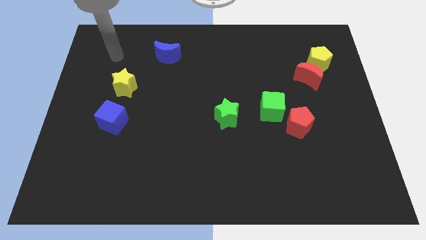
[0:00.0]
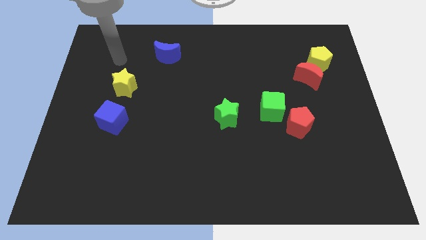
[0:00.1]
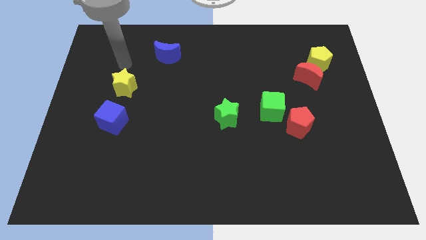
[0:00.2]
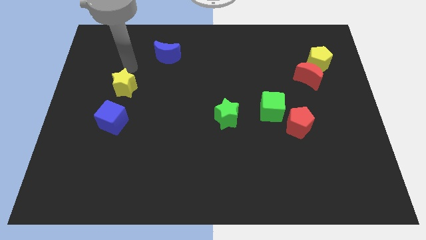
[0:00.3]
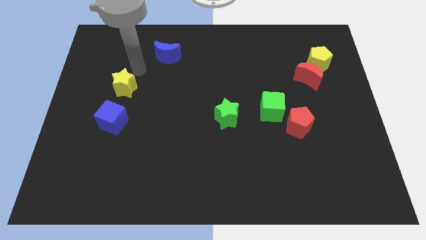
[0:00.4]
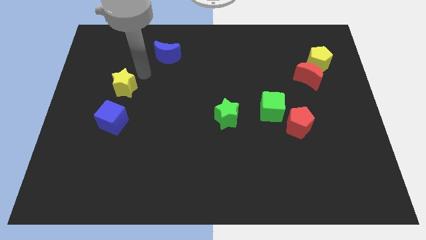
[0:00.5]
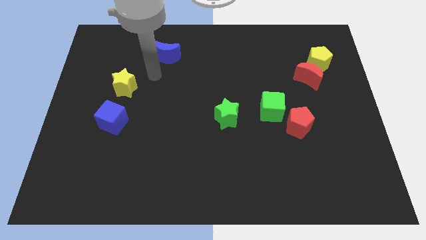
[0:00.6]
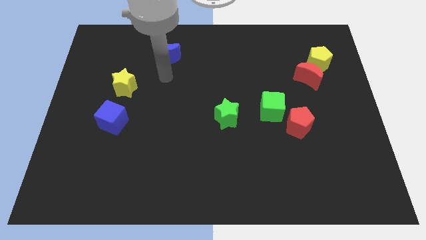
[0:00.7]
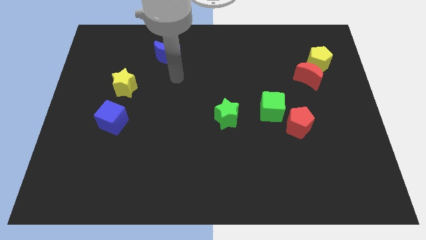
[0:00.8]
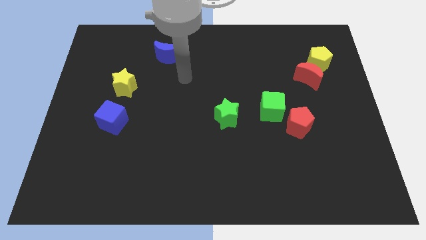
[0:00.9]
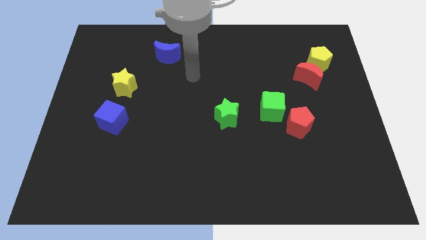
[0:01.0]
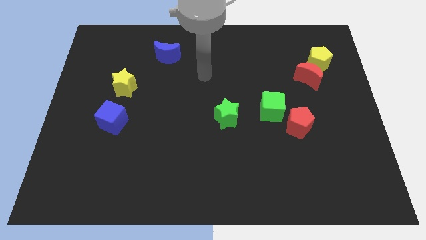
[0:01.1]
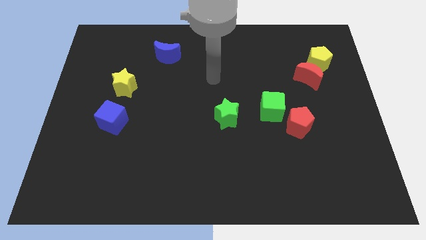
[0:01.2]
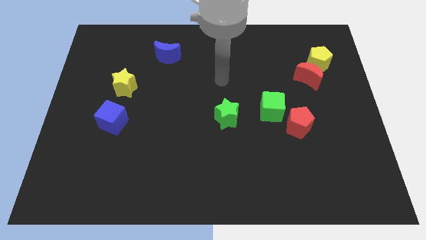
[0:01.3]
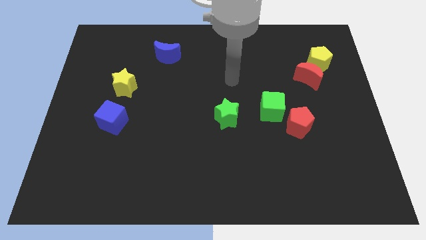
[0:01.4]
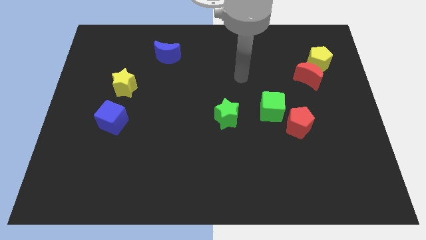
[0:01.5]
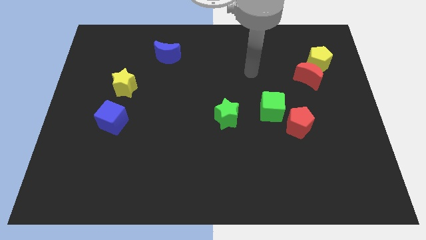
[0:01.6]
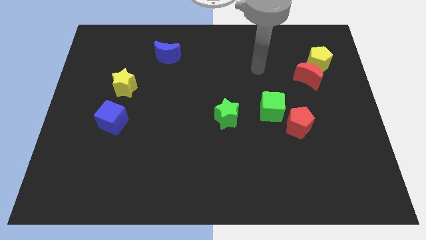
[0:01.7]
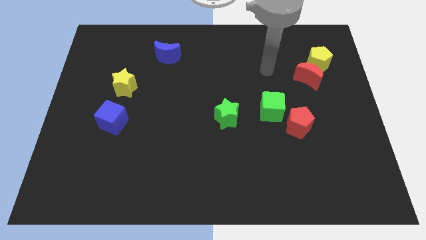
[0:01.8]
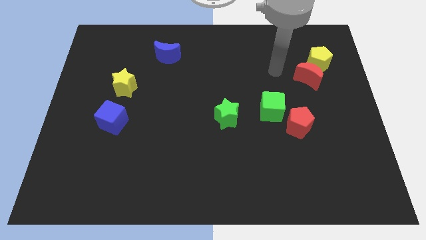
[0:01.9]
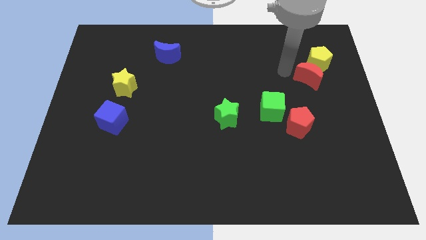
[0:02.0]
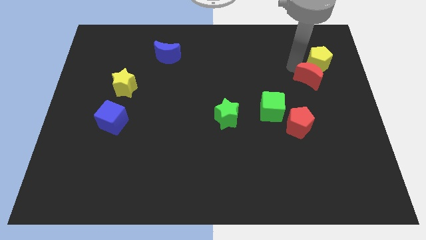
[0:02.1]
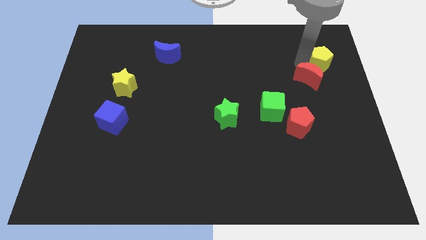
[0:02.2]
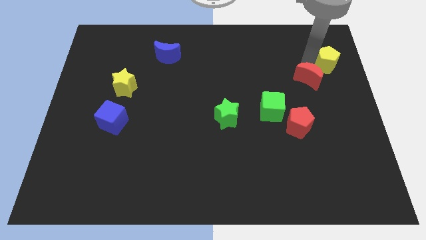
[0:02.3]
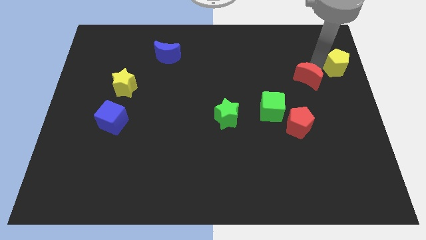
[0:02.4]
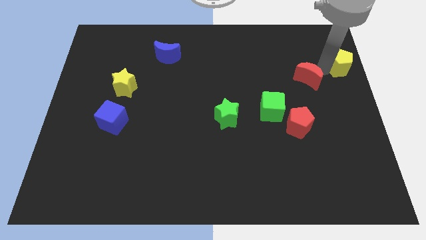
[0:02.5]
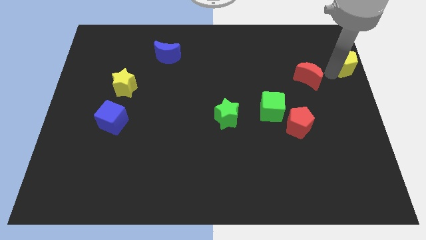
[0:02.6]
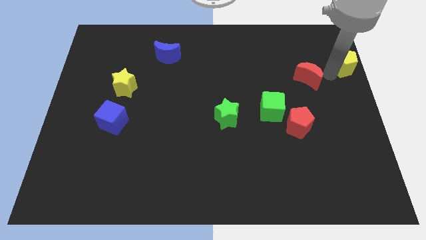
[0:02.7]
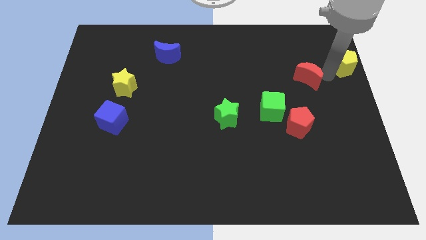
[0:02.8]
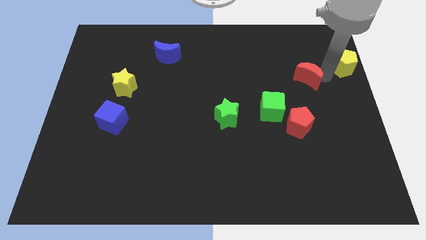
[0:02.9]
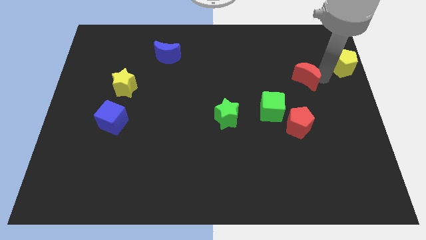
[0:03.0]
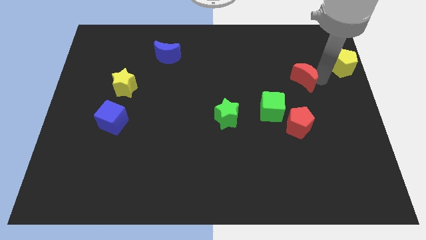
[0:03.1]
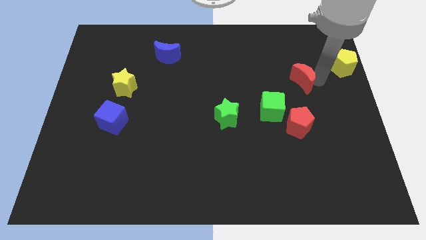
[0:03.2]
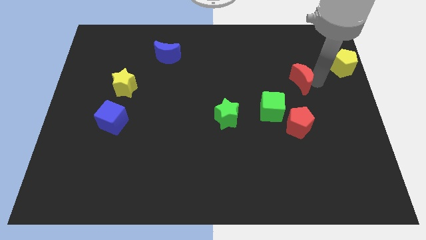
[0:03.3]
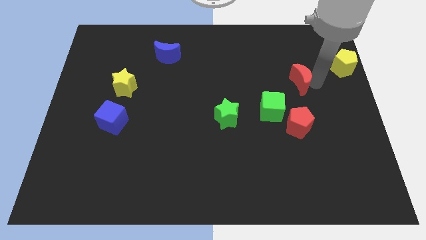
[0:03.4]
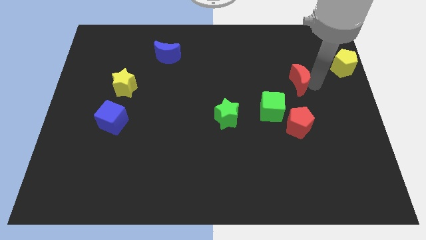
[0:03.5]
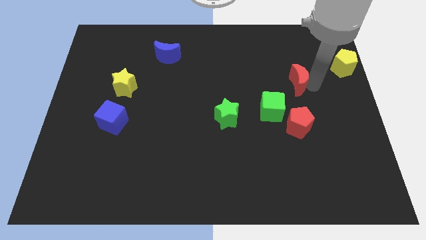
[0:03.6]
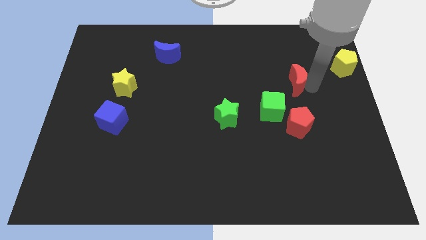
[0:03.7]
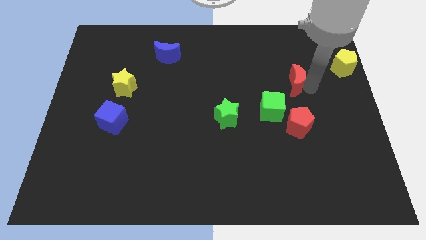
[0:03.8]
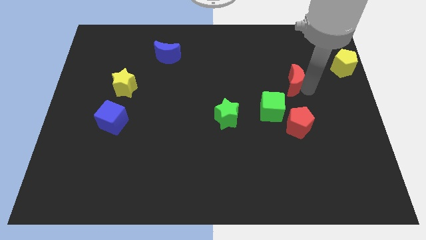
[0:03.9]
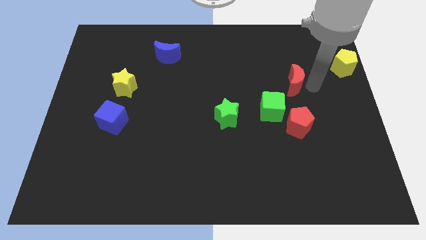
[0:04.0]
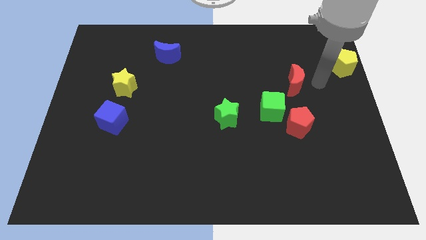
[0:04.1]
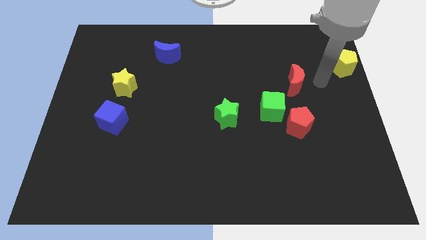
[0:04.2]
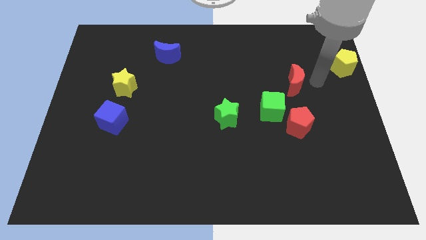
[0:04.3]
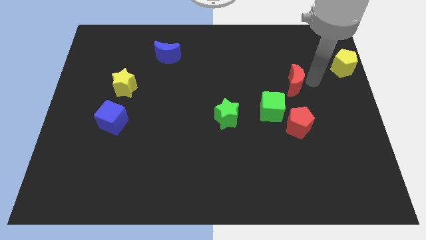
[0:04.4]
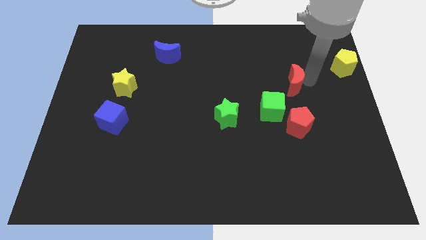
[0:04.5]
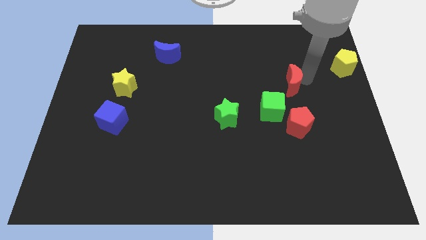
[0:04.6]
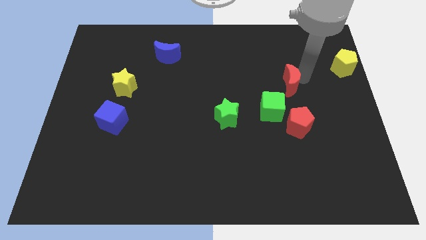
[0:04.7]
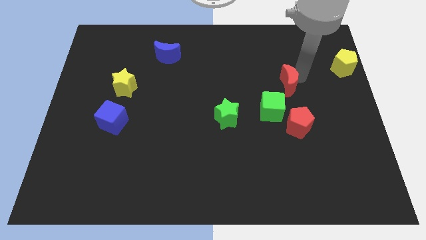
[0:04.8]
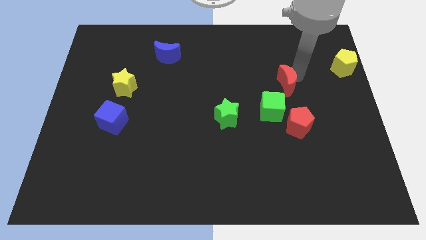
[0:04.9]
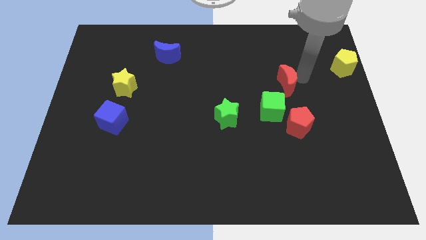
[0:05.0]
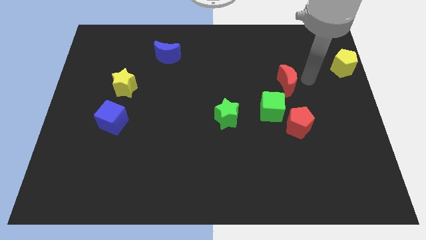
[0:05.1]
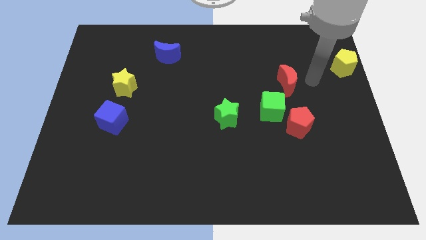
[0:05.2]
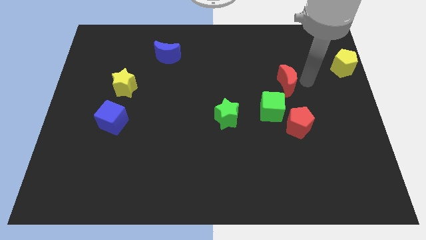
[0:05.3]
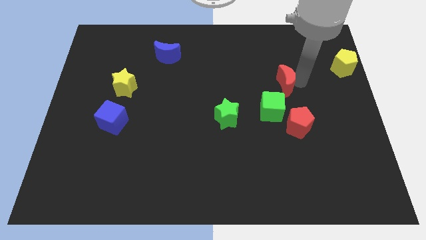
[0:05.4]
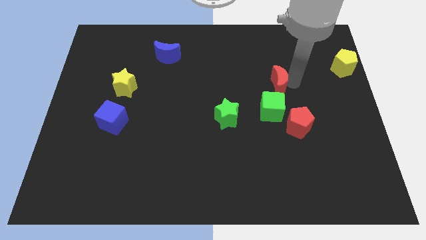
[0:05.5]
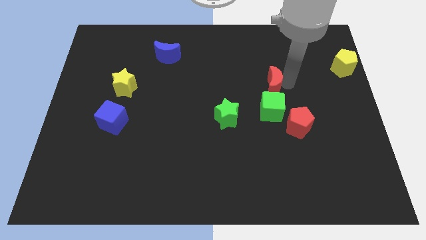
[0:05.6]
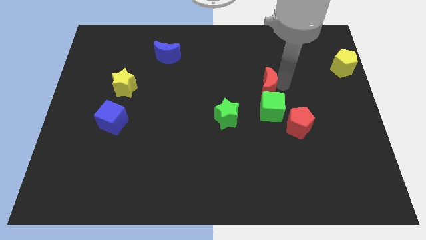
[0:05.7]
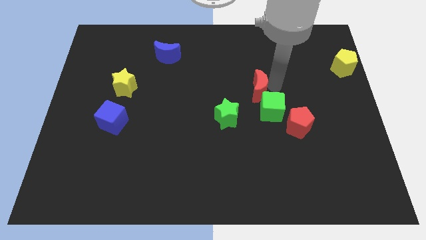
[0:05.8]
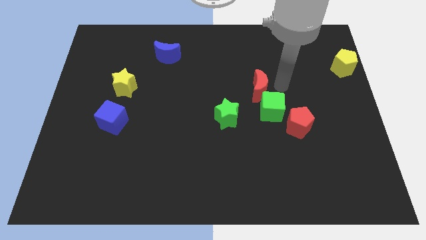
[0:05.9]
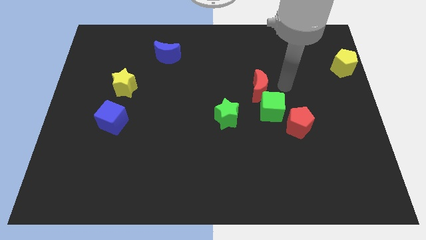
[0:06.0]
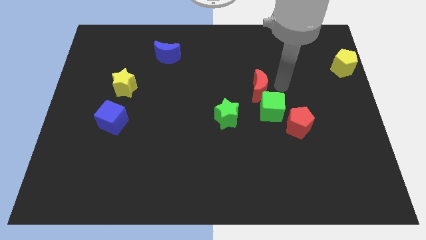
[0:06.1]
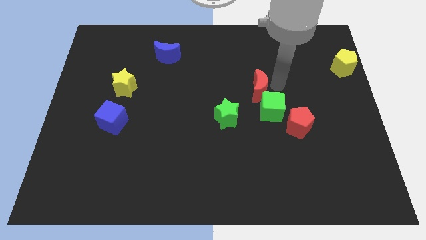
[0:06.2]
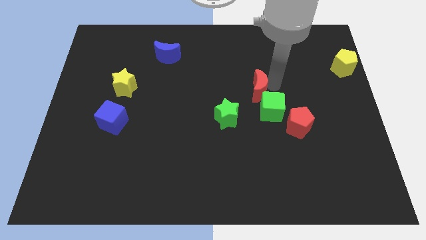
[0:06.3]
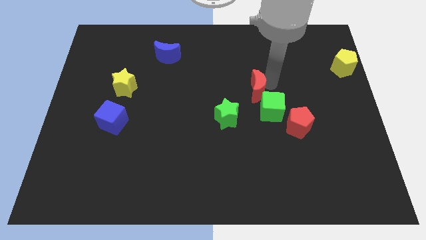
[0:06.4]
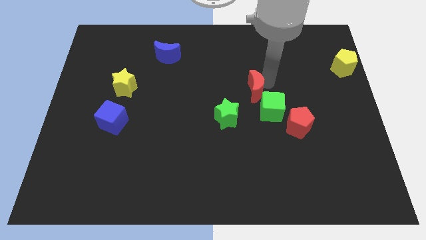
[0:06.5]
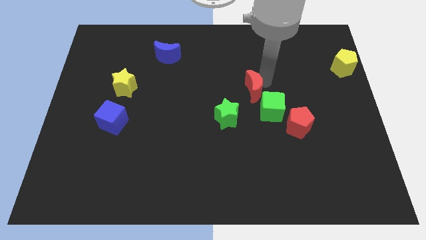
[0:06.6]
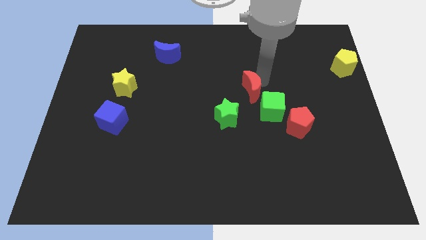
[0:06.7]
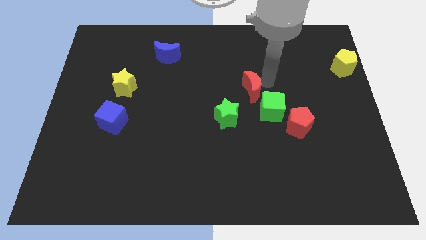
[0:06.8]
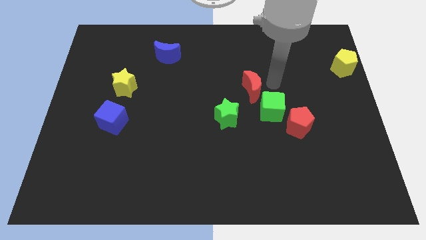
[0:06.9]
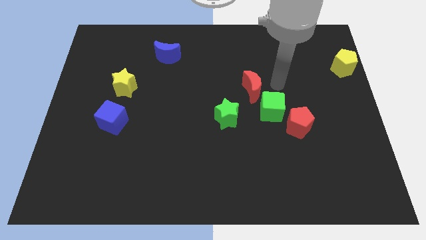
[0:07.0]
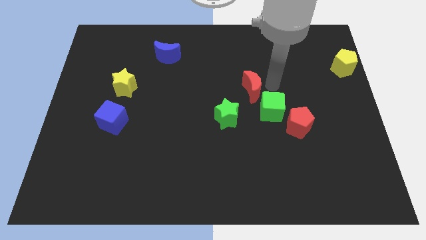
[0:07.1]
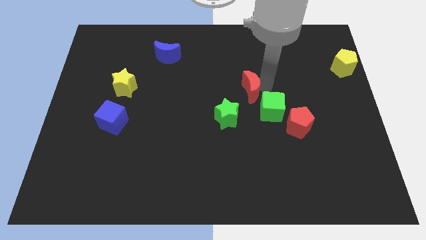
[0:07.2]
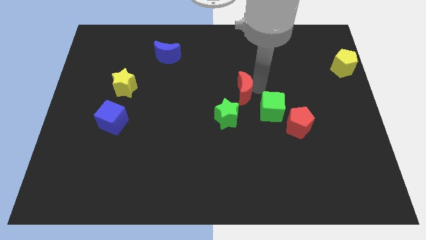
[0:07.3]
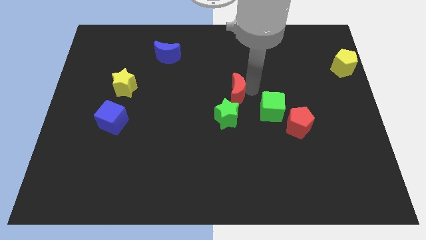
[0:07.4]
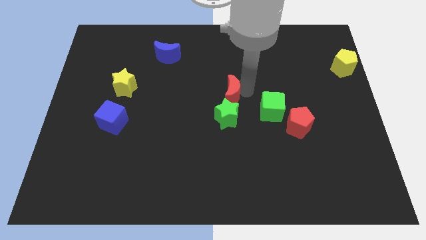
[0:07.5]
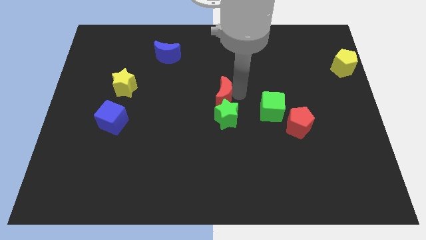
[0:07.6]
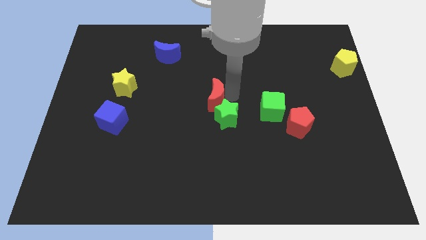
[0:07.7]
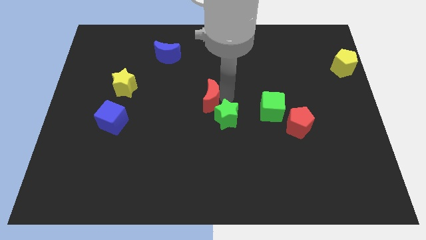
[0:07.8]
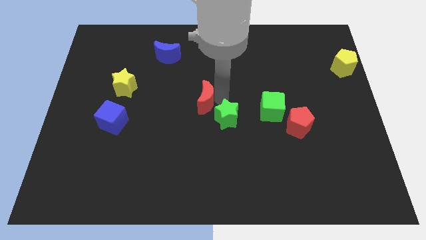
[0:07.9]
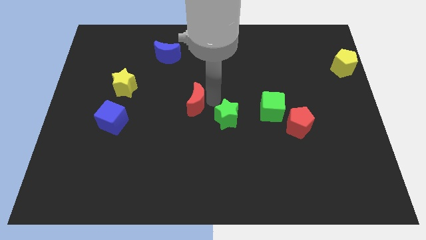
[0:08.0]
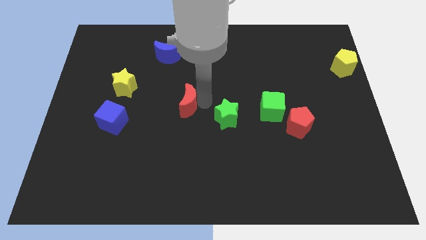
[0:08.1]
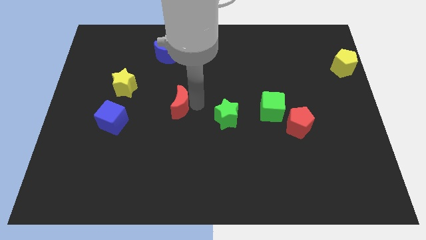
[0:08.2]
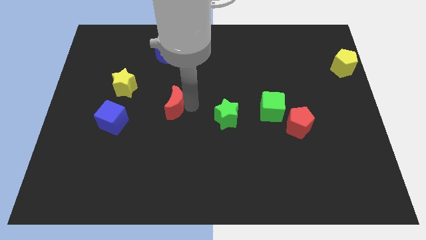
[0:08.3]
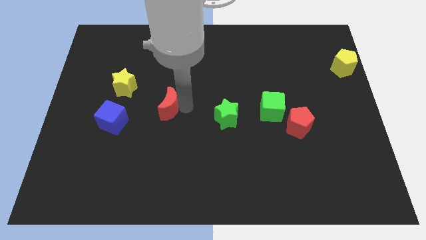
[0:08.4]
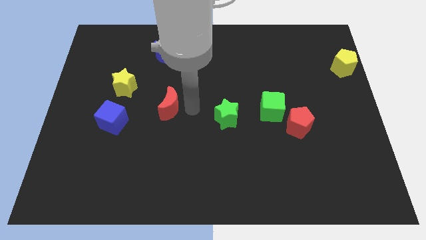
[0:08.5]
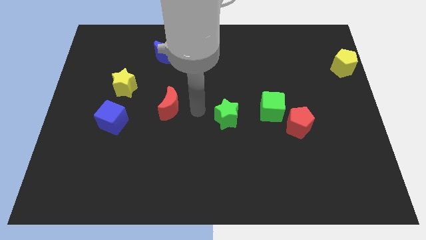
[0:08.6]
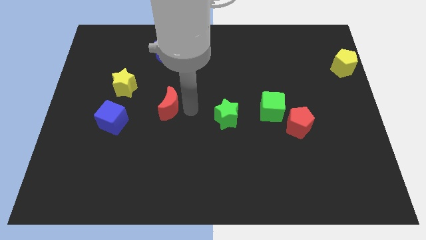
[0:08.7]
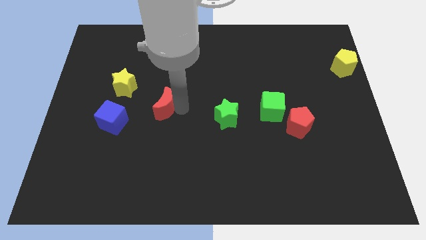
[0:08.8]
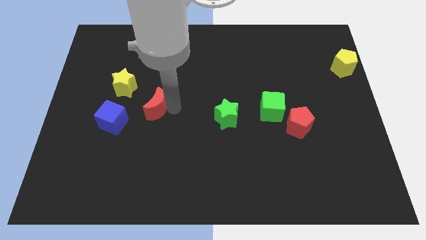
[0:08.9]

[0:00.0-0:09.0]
move the red moon to the top right side of the blue cube
